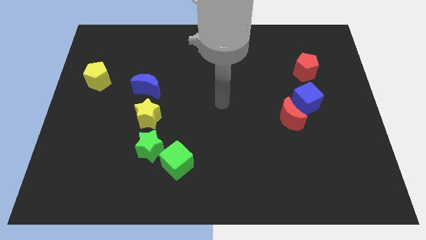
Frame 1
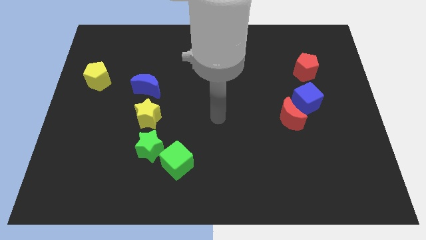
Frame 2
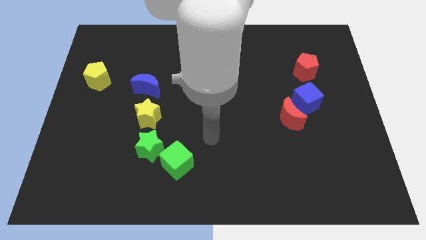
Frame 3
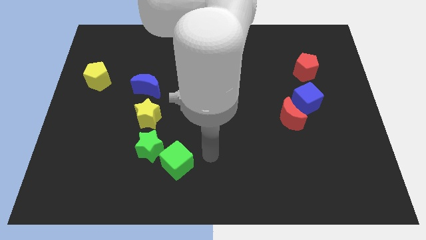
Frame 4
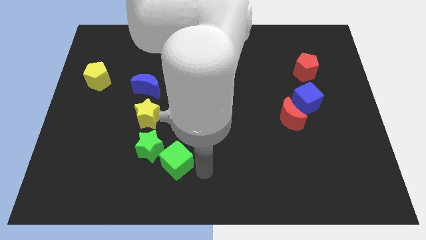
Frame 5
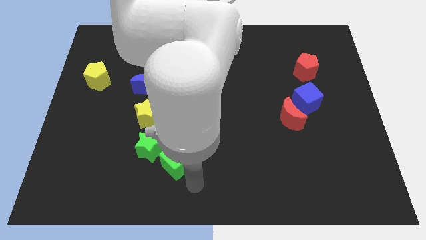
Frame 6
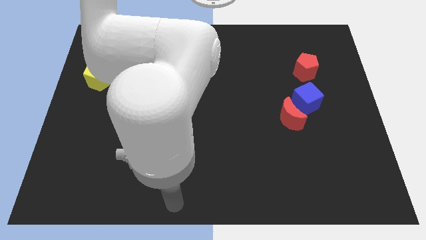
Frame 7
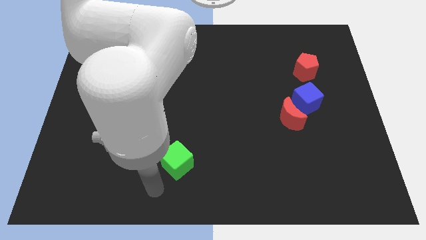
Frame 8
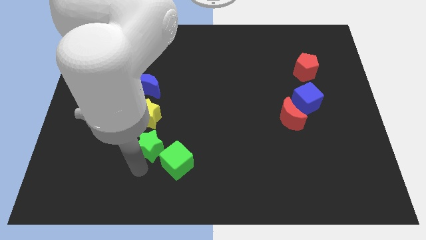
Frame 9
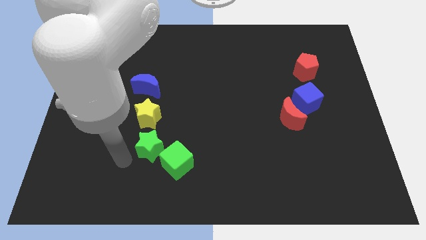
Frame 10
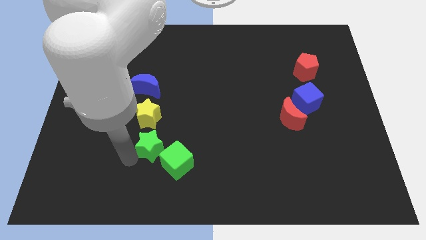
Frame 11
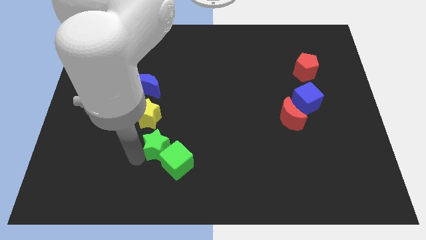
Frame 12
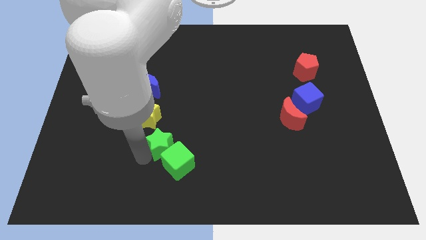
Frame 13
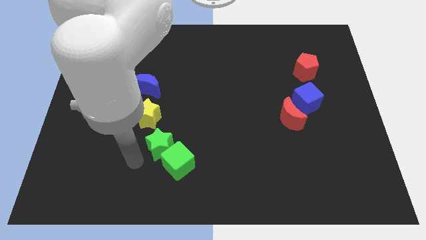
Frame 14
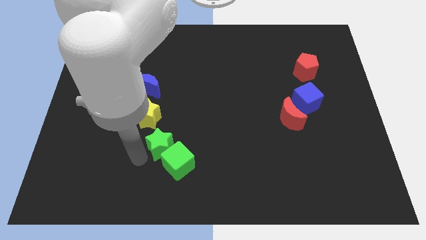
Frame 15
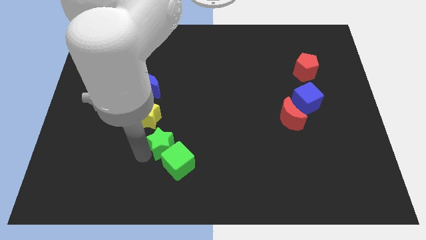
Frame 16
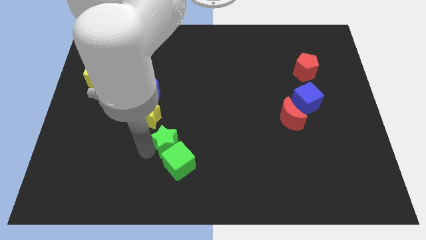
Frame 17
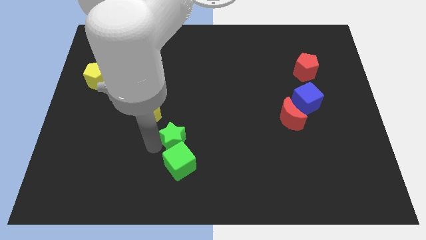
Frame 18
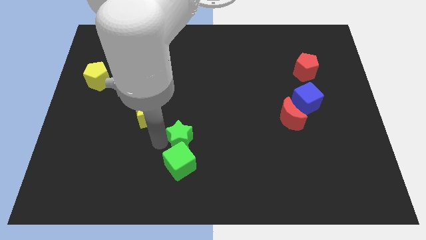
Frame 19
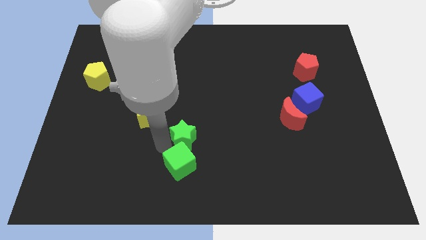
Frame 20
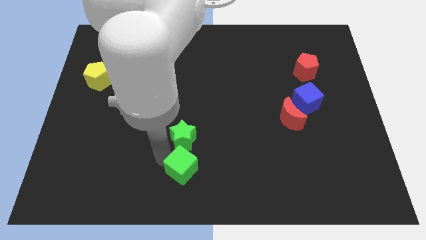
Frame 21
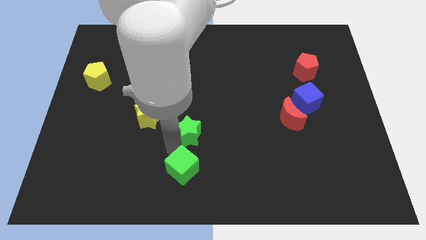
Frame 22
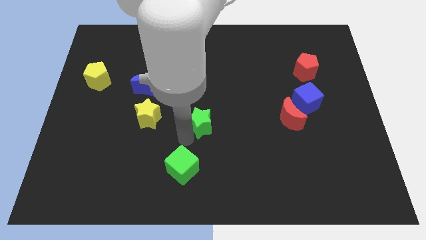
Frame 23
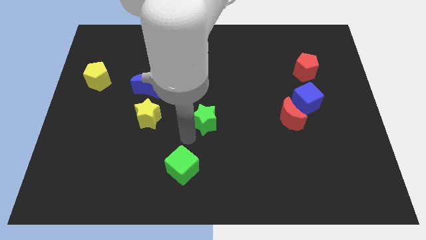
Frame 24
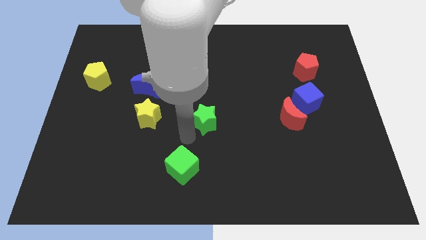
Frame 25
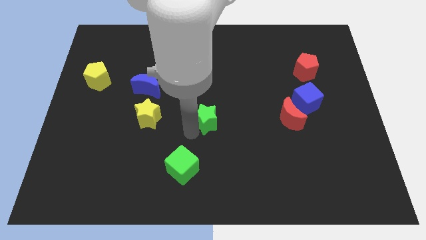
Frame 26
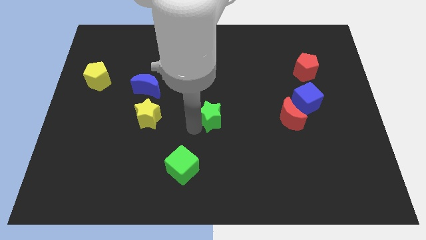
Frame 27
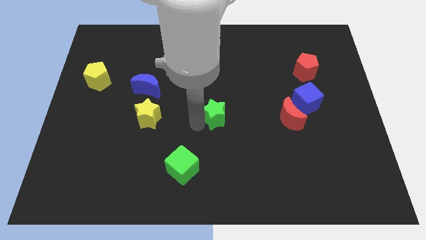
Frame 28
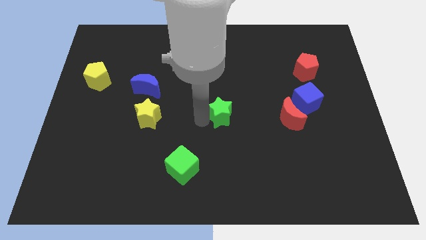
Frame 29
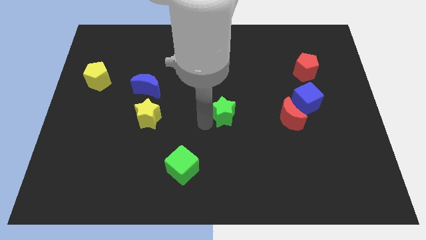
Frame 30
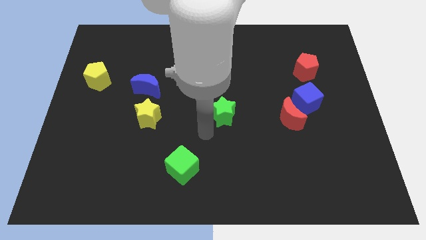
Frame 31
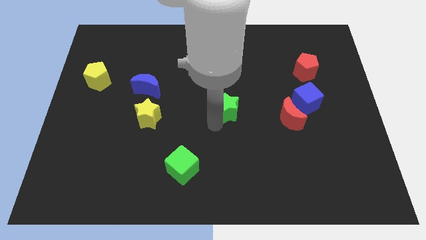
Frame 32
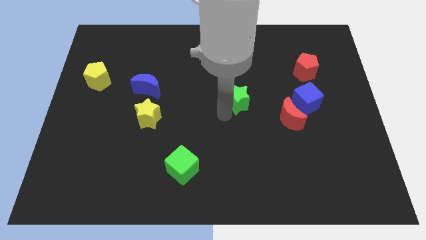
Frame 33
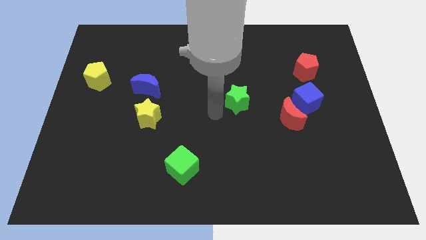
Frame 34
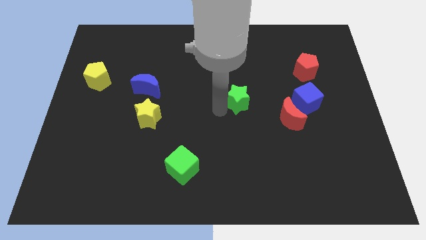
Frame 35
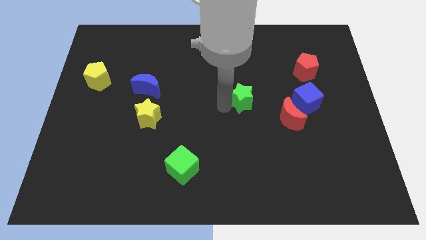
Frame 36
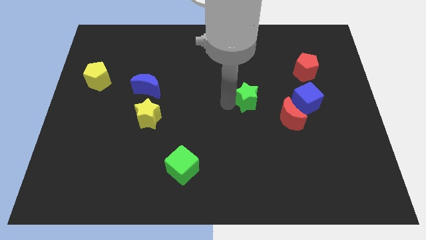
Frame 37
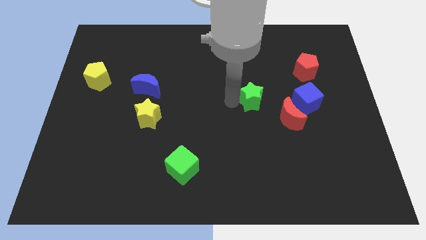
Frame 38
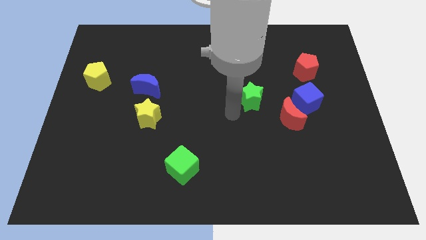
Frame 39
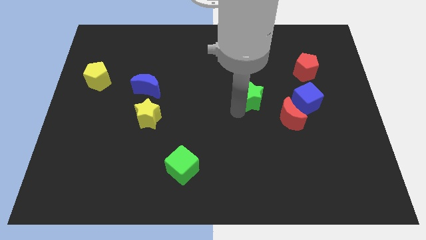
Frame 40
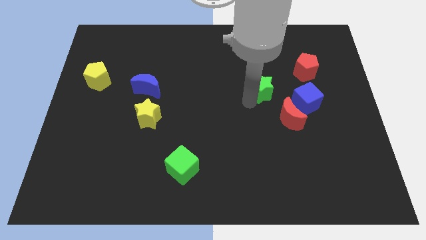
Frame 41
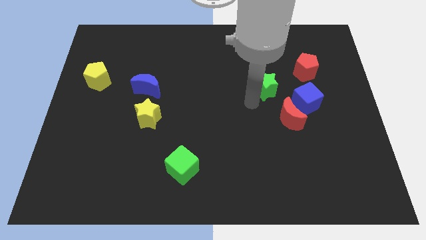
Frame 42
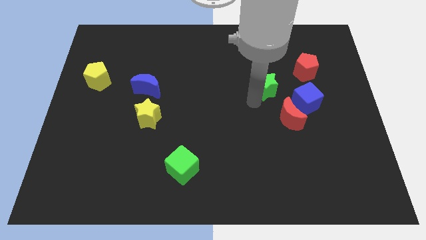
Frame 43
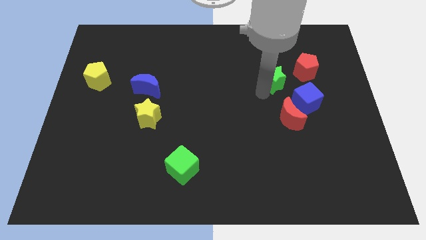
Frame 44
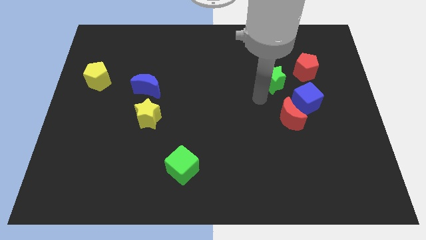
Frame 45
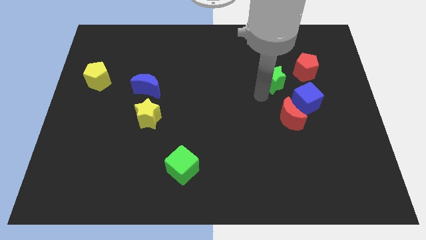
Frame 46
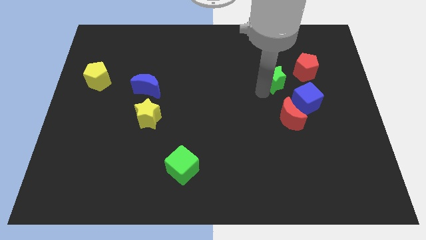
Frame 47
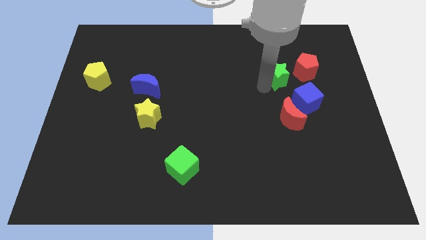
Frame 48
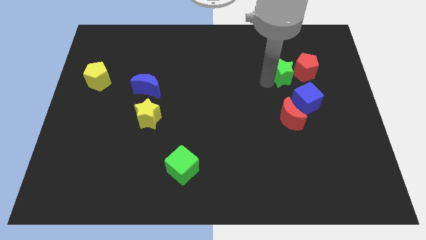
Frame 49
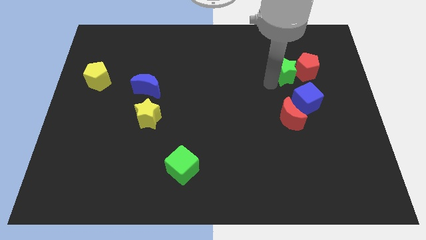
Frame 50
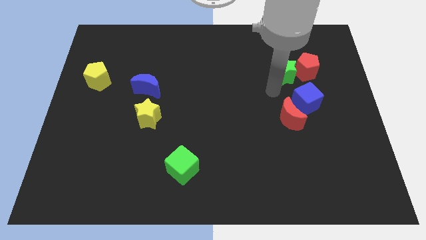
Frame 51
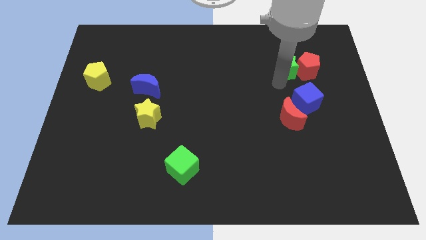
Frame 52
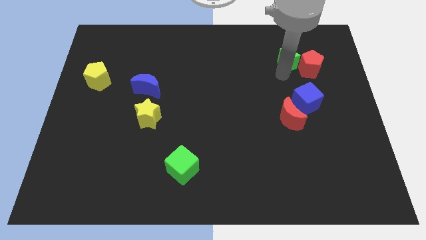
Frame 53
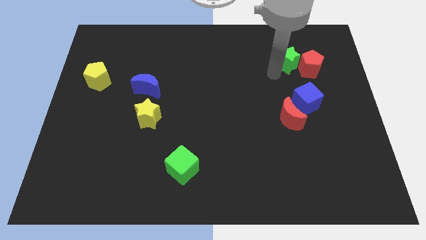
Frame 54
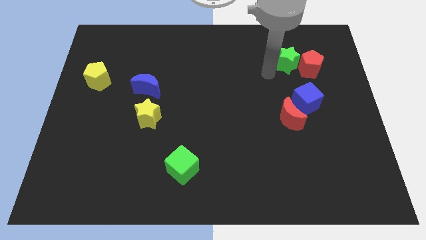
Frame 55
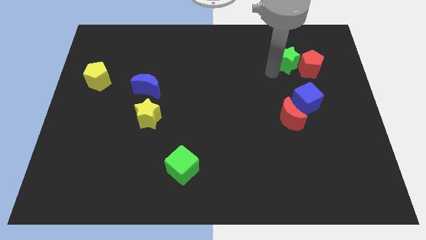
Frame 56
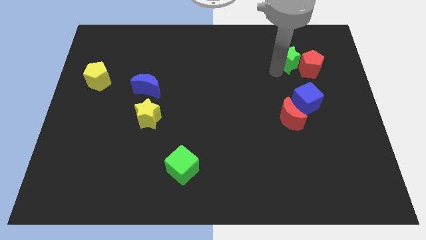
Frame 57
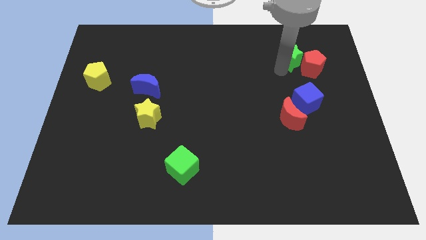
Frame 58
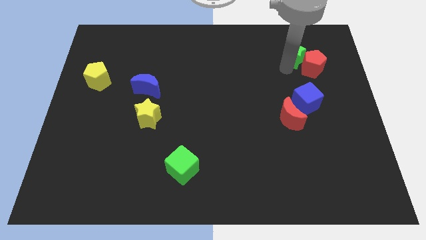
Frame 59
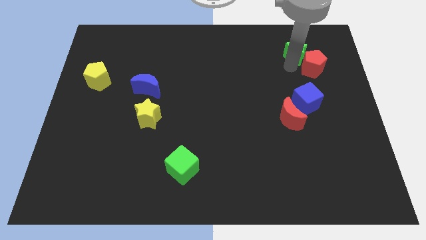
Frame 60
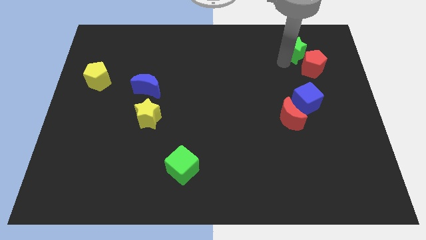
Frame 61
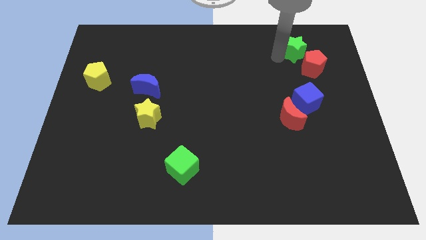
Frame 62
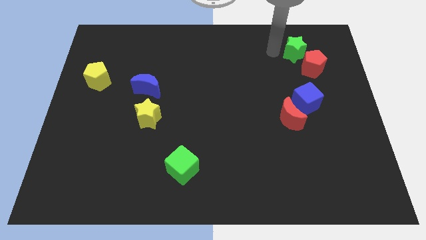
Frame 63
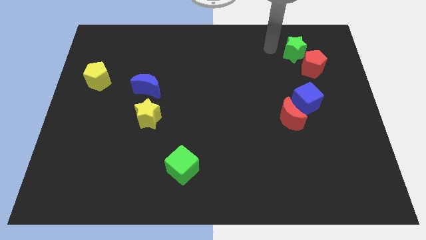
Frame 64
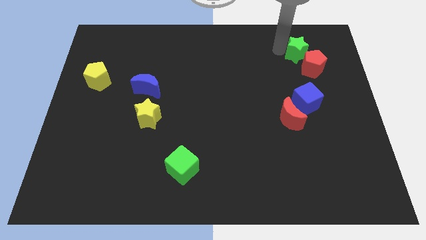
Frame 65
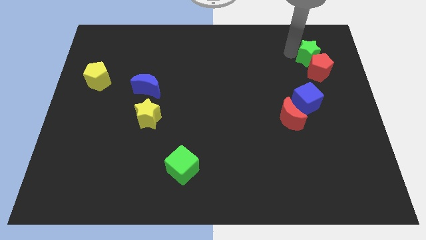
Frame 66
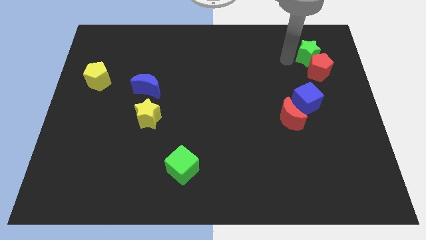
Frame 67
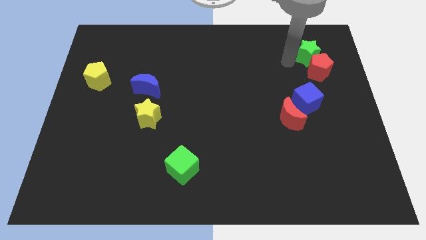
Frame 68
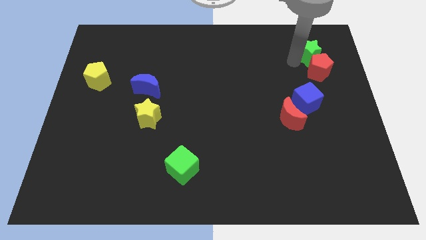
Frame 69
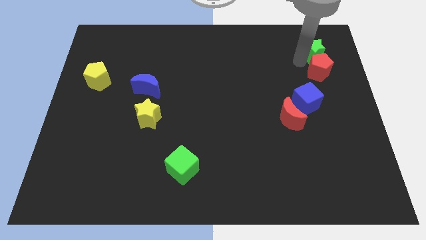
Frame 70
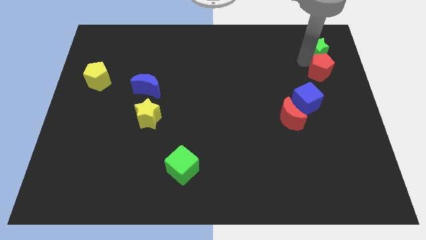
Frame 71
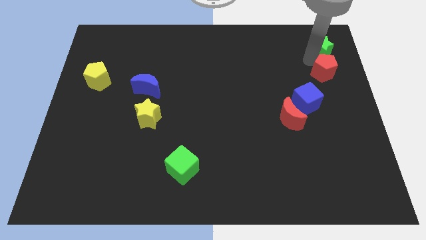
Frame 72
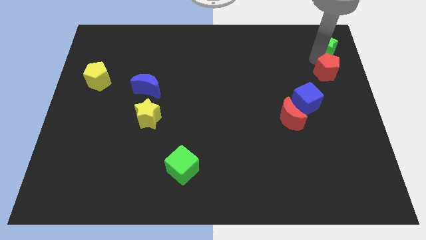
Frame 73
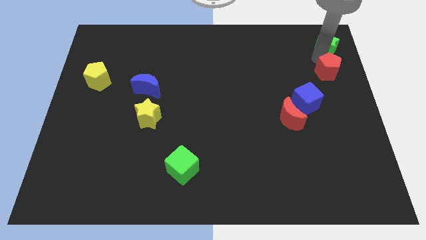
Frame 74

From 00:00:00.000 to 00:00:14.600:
slide the green star to the top right
